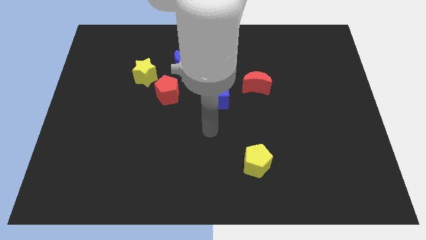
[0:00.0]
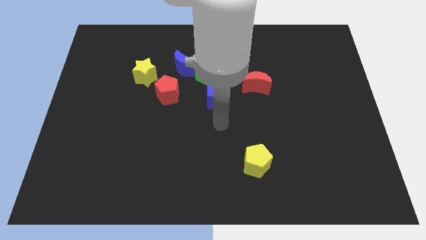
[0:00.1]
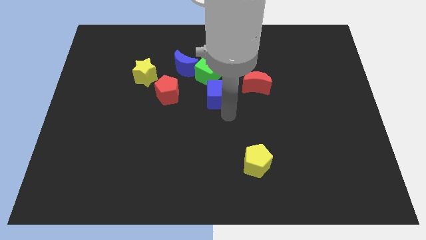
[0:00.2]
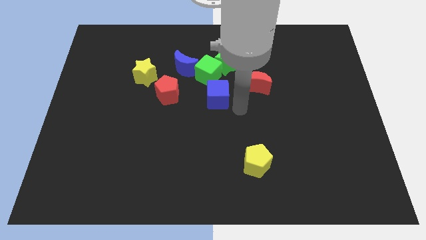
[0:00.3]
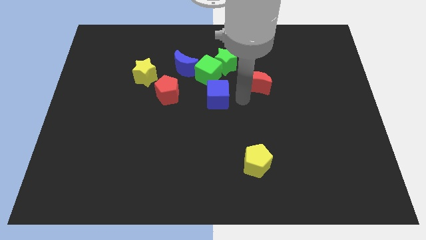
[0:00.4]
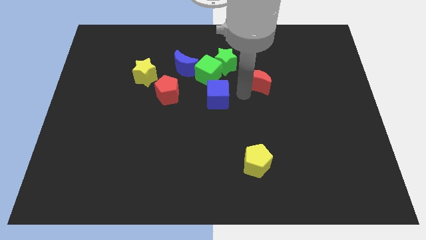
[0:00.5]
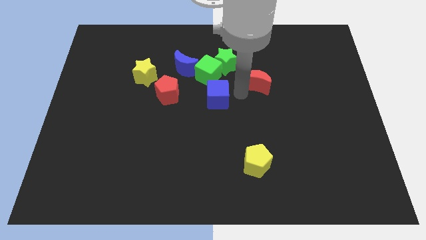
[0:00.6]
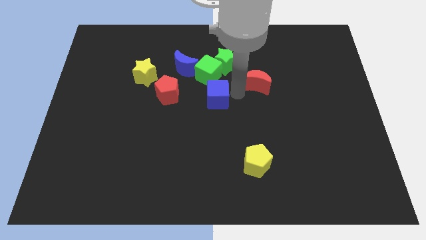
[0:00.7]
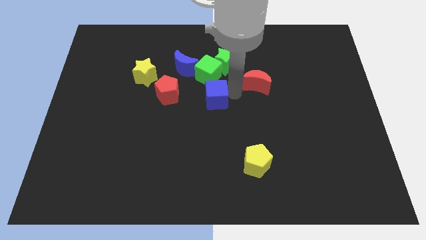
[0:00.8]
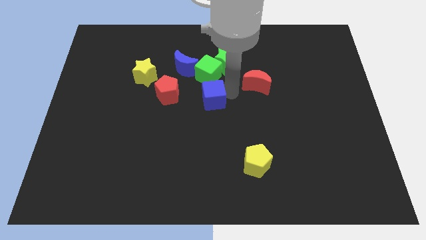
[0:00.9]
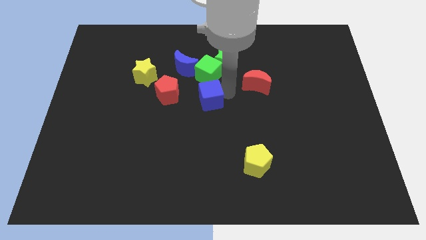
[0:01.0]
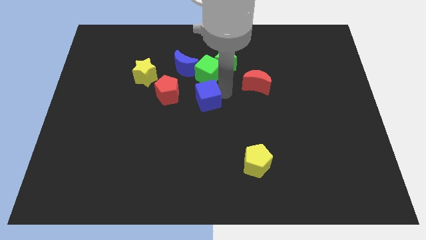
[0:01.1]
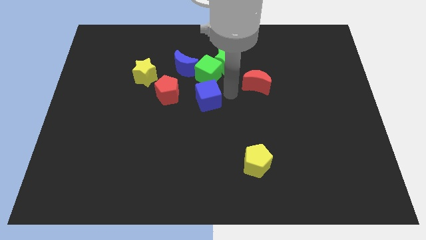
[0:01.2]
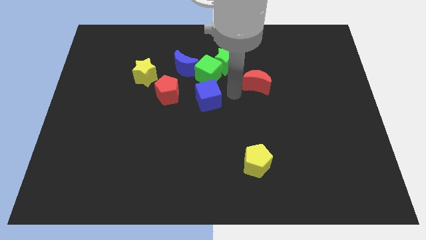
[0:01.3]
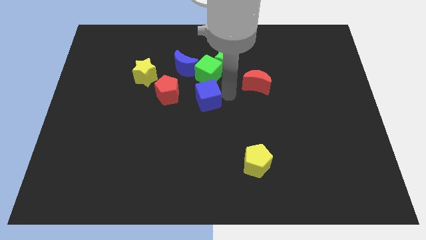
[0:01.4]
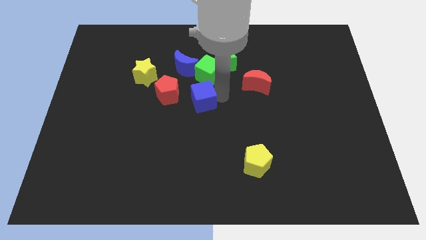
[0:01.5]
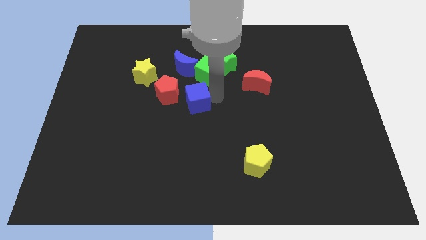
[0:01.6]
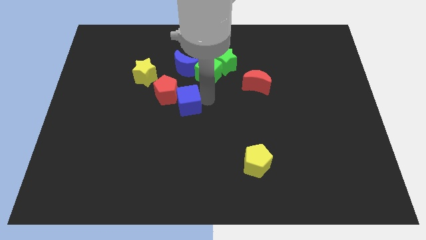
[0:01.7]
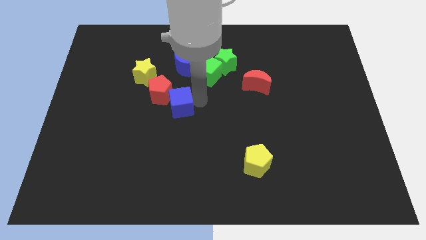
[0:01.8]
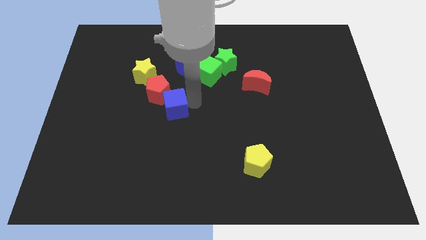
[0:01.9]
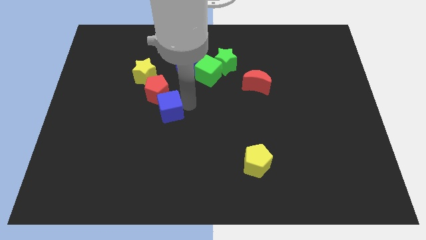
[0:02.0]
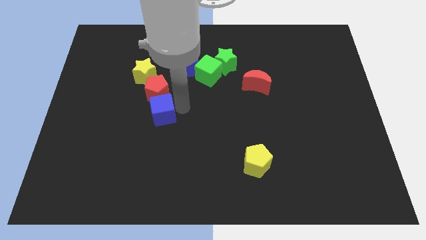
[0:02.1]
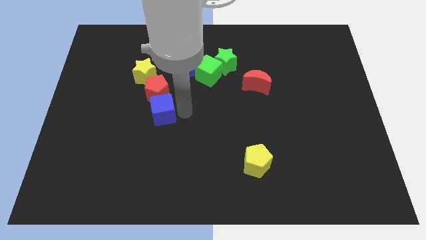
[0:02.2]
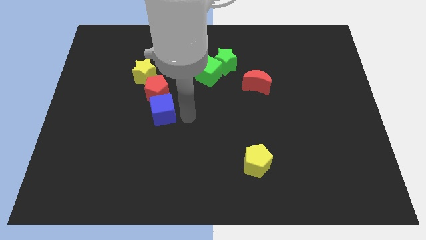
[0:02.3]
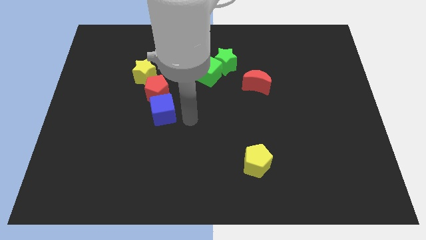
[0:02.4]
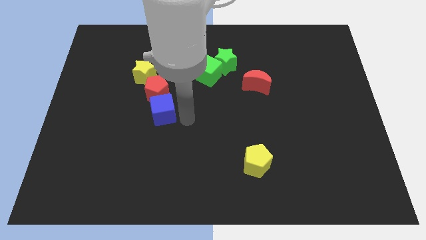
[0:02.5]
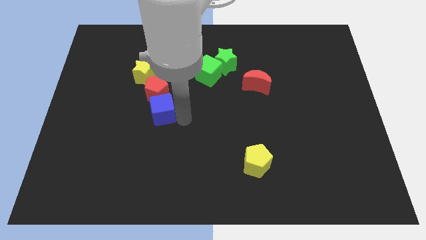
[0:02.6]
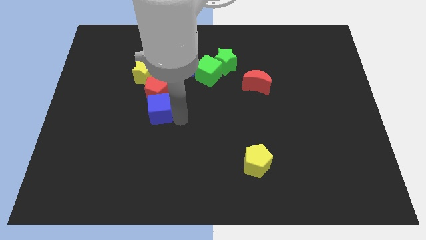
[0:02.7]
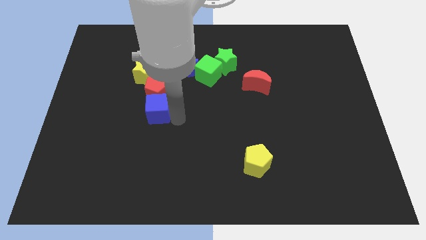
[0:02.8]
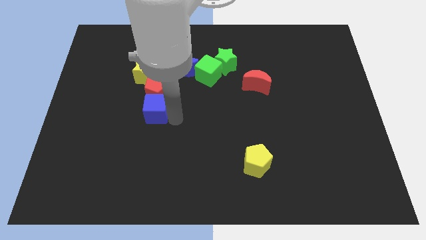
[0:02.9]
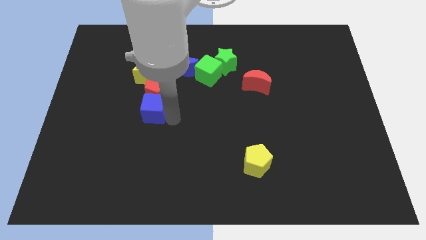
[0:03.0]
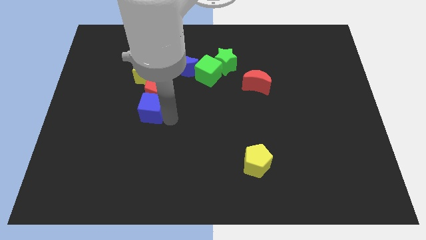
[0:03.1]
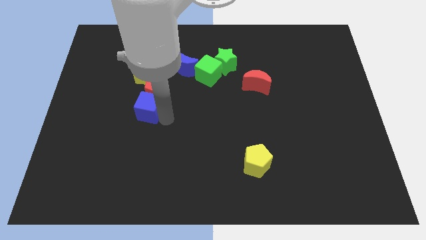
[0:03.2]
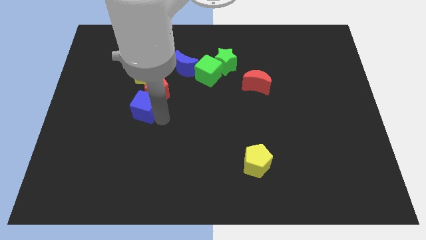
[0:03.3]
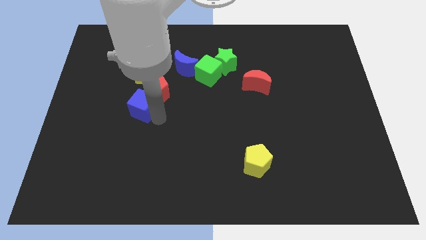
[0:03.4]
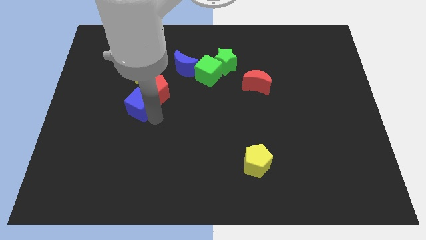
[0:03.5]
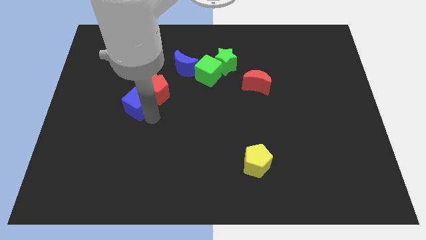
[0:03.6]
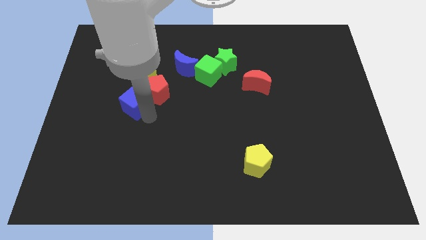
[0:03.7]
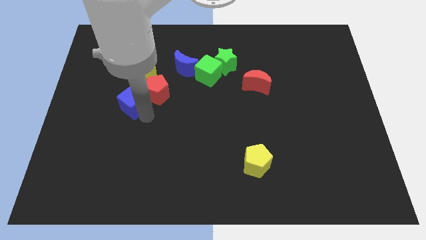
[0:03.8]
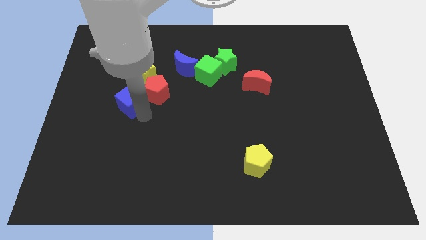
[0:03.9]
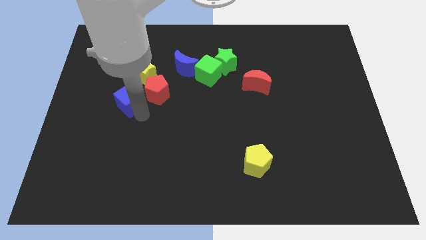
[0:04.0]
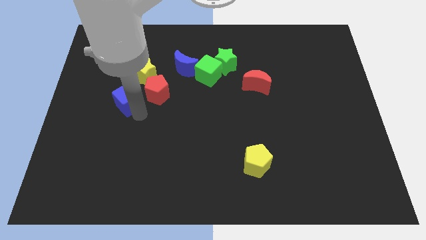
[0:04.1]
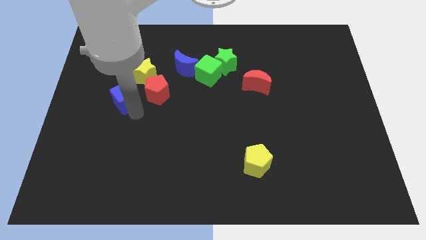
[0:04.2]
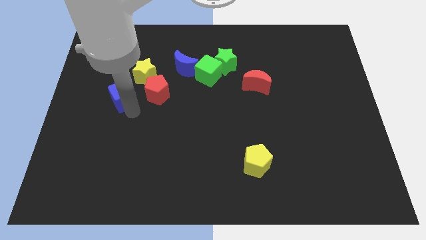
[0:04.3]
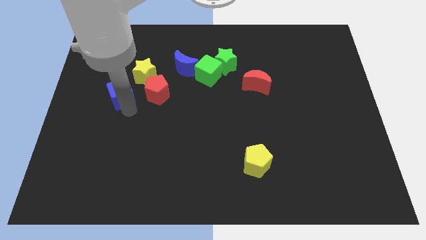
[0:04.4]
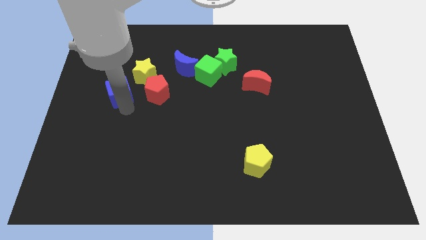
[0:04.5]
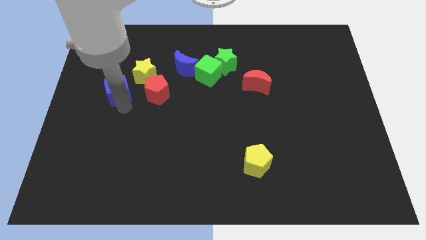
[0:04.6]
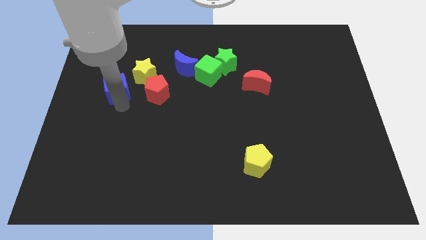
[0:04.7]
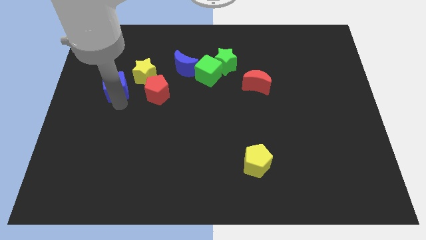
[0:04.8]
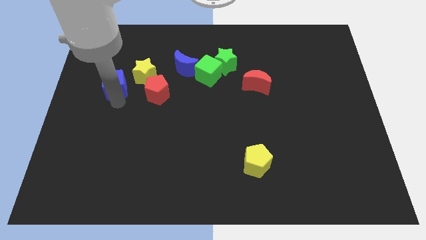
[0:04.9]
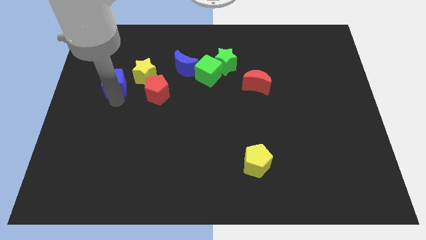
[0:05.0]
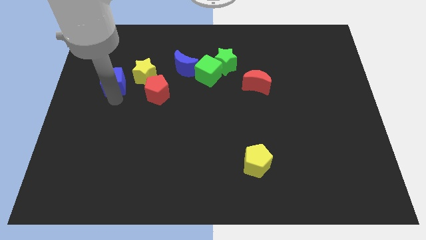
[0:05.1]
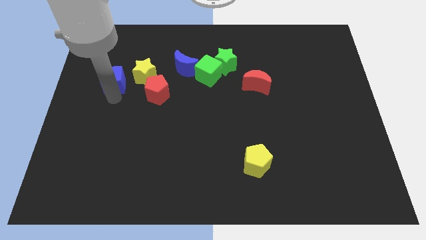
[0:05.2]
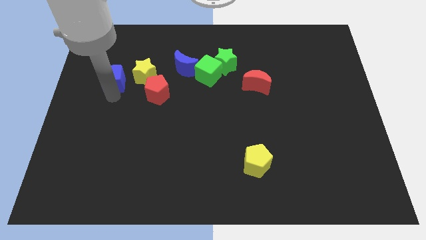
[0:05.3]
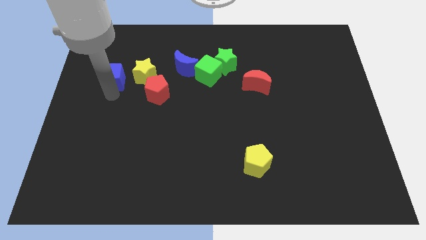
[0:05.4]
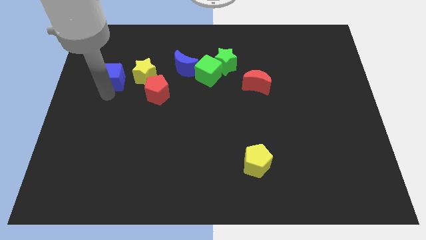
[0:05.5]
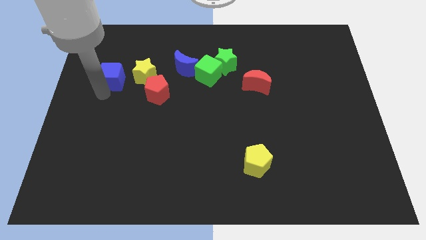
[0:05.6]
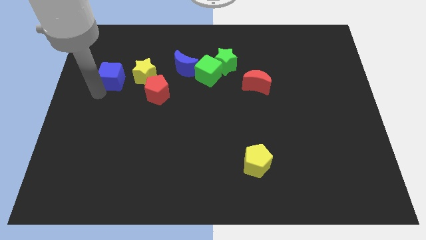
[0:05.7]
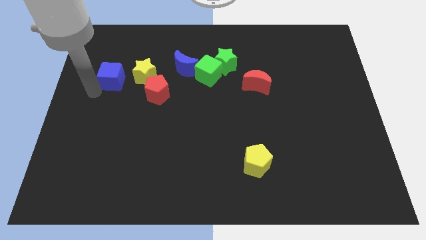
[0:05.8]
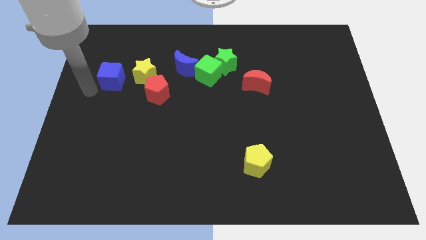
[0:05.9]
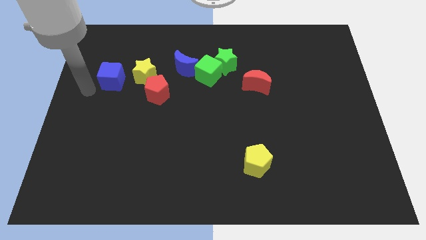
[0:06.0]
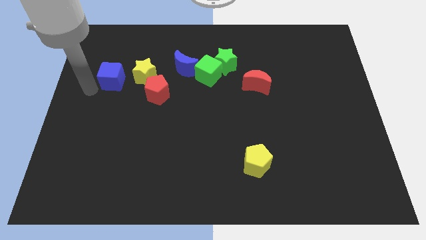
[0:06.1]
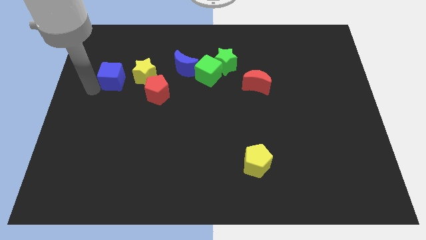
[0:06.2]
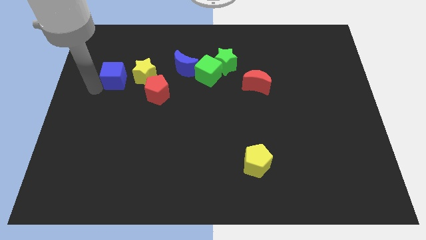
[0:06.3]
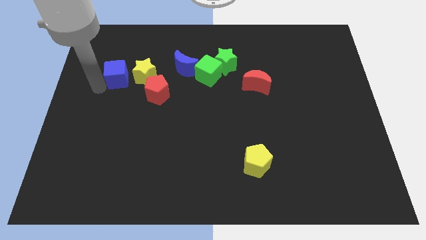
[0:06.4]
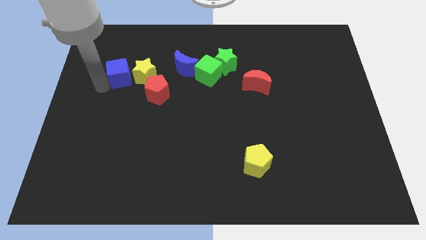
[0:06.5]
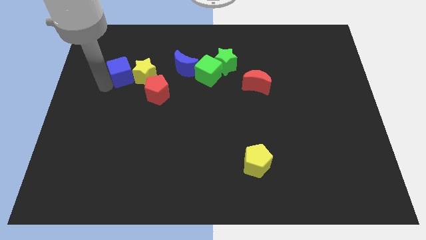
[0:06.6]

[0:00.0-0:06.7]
move the blue cube to the left of the blue moon
